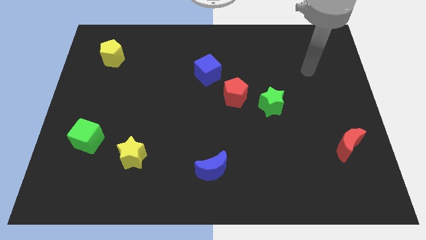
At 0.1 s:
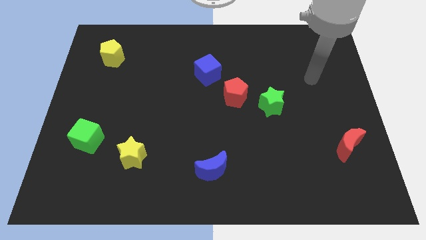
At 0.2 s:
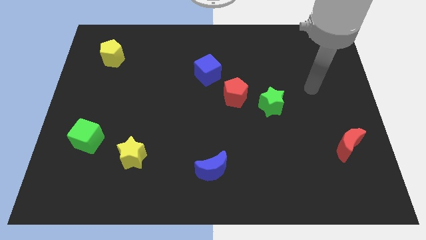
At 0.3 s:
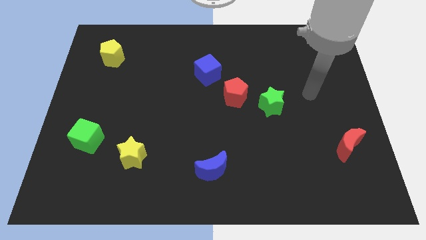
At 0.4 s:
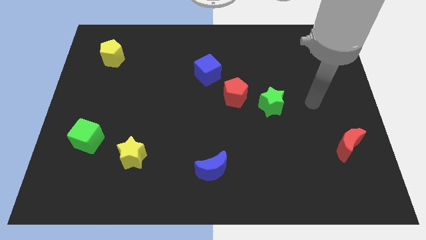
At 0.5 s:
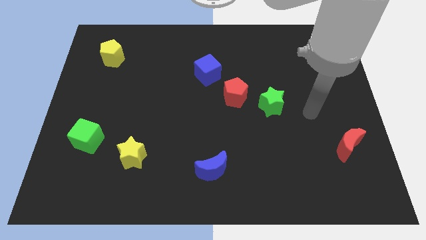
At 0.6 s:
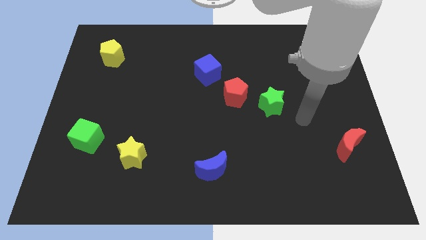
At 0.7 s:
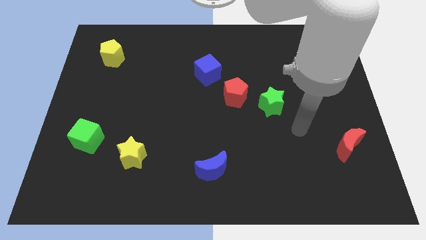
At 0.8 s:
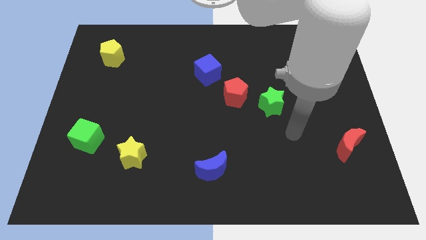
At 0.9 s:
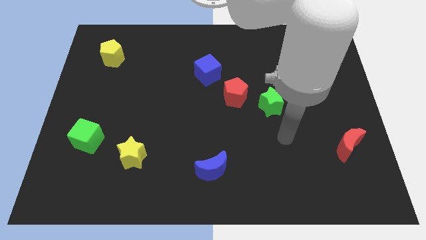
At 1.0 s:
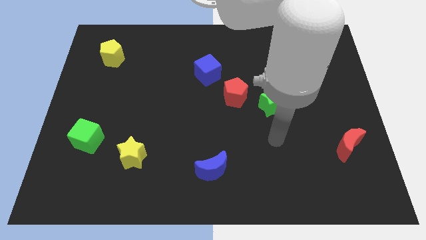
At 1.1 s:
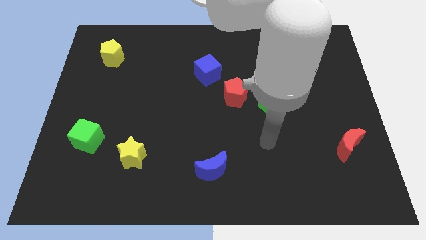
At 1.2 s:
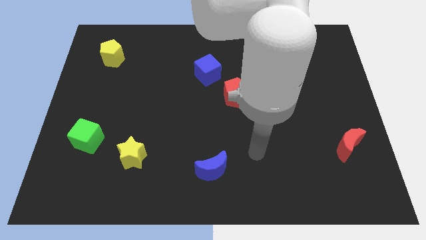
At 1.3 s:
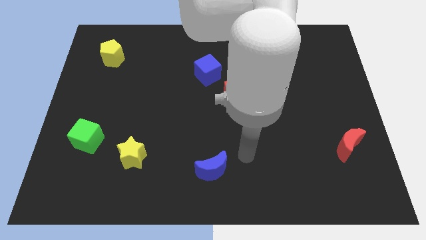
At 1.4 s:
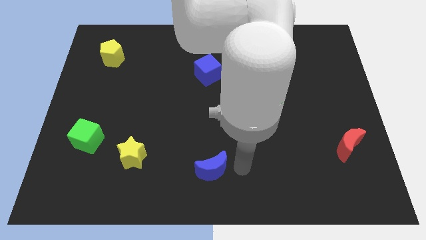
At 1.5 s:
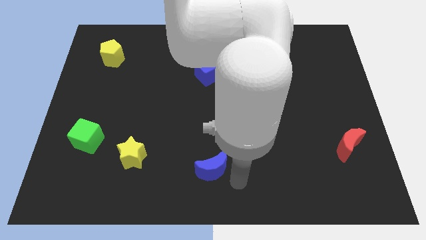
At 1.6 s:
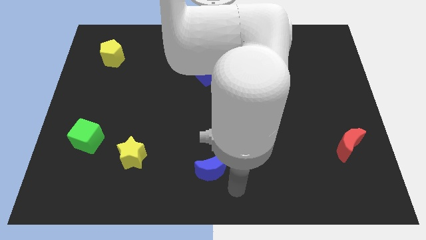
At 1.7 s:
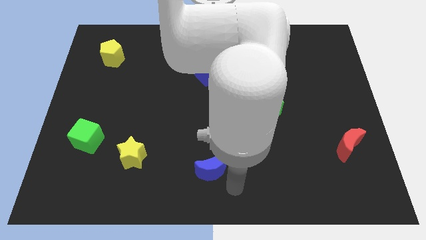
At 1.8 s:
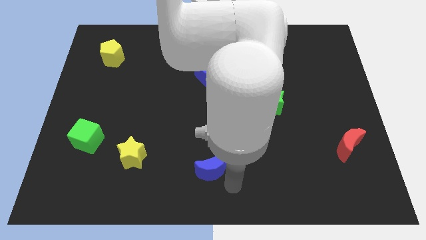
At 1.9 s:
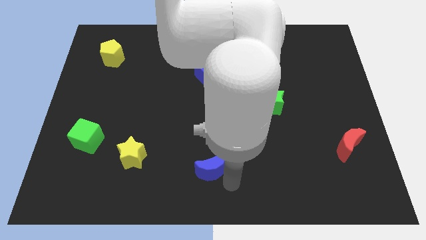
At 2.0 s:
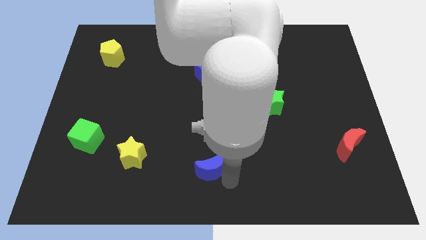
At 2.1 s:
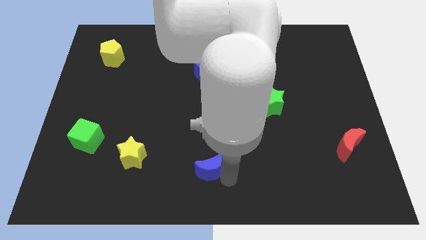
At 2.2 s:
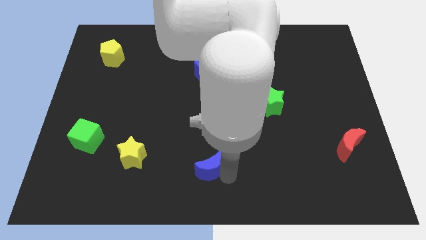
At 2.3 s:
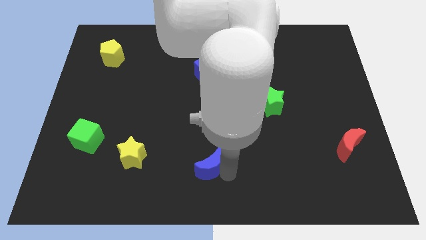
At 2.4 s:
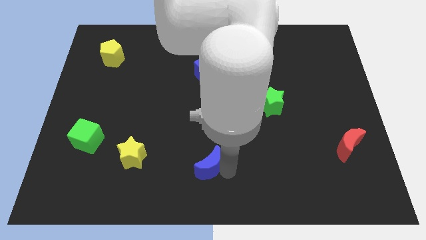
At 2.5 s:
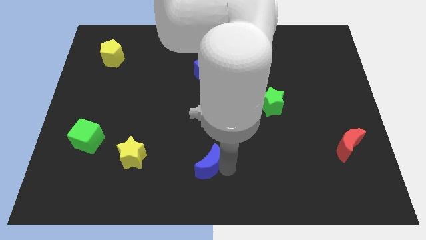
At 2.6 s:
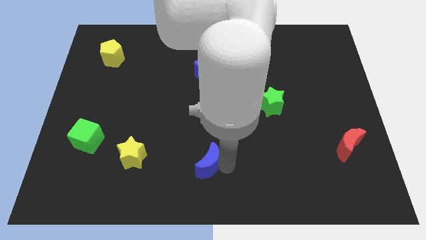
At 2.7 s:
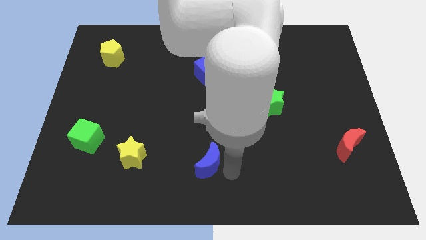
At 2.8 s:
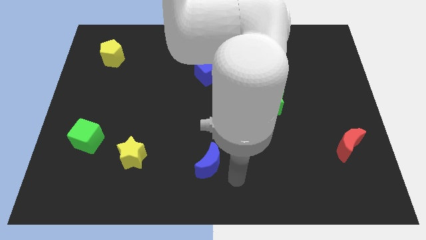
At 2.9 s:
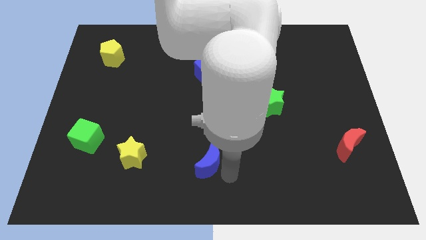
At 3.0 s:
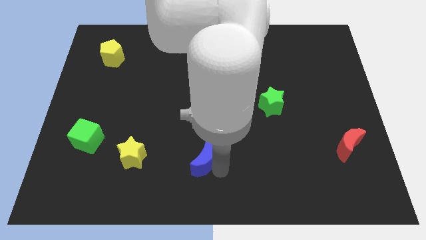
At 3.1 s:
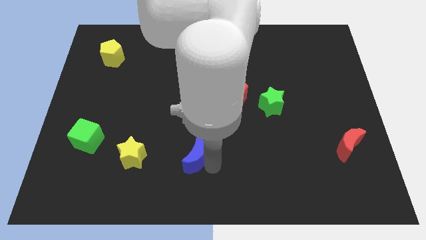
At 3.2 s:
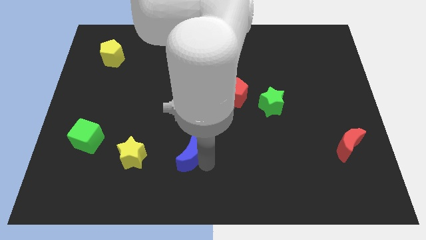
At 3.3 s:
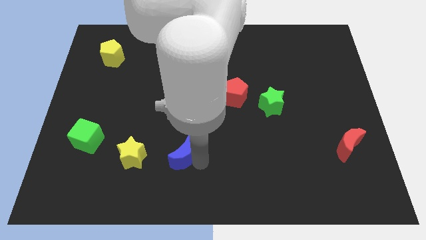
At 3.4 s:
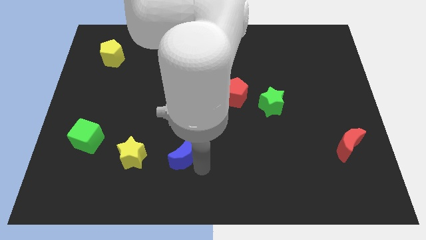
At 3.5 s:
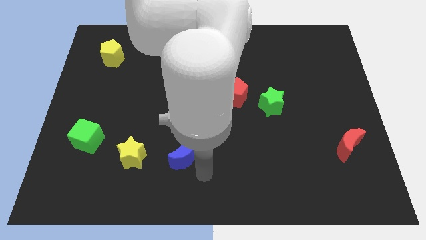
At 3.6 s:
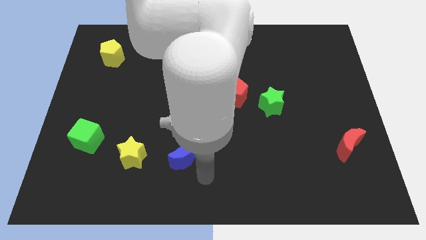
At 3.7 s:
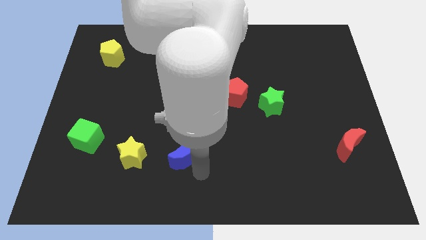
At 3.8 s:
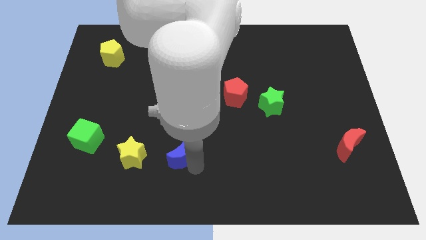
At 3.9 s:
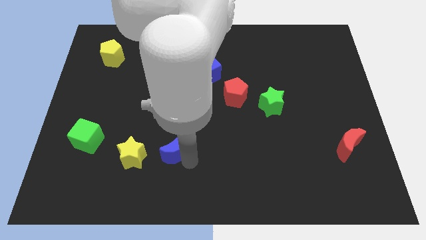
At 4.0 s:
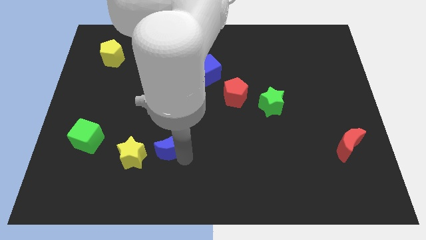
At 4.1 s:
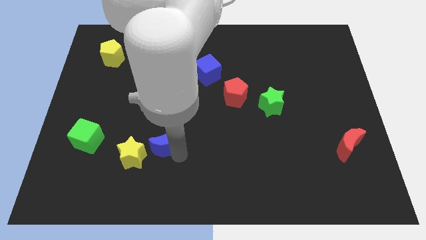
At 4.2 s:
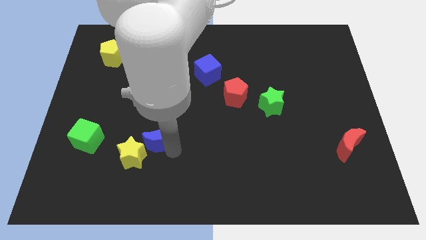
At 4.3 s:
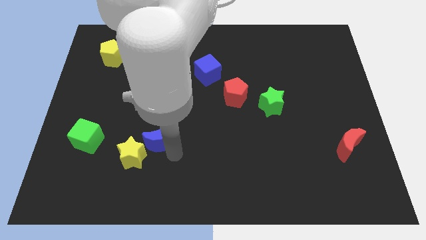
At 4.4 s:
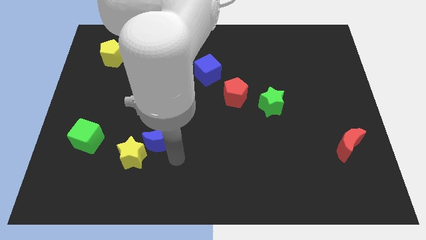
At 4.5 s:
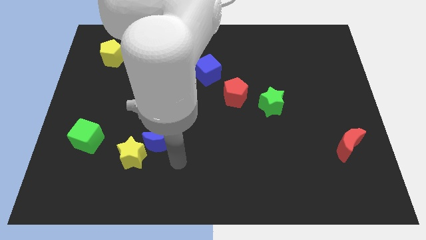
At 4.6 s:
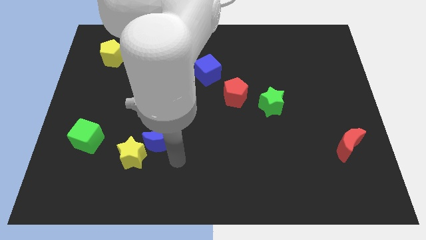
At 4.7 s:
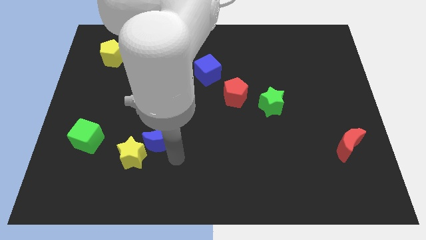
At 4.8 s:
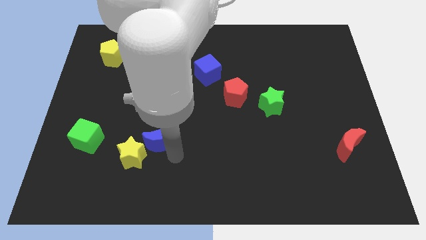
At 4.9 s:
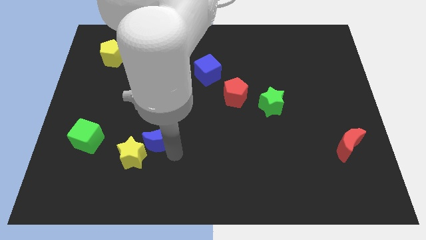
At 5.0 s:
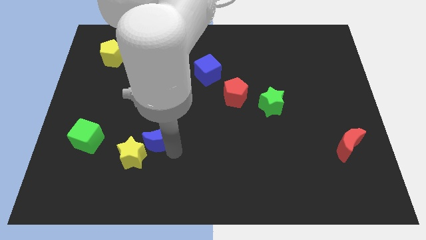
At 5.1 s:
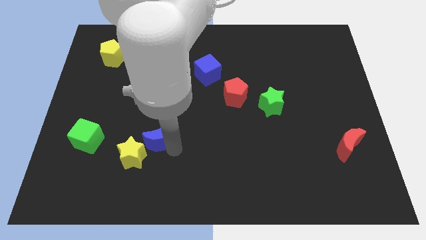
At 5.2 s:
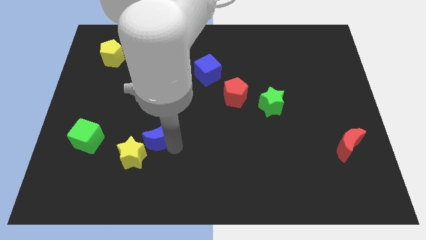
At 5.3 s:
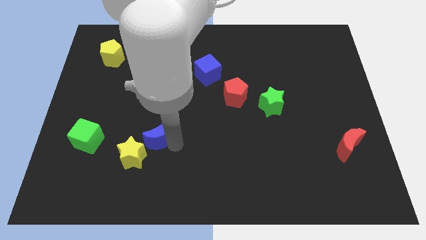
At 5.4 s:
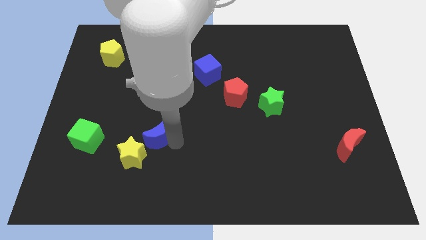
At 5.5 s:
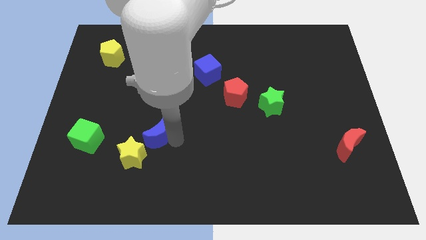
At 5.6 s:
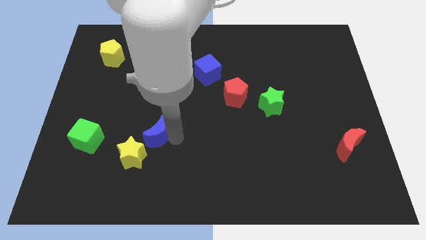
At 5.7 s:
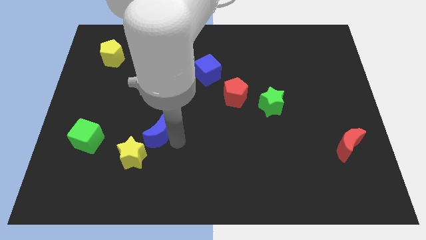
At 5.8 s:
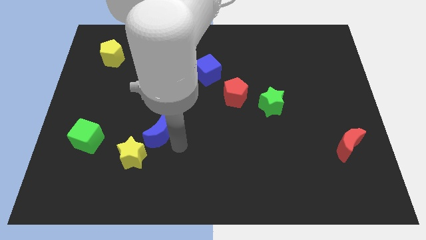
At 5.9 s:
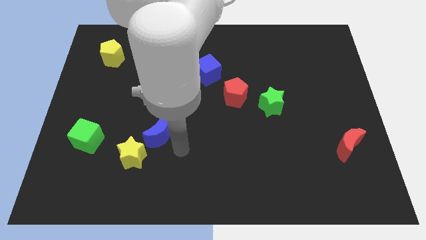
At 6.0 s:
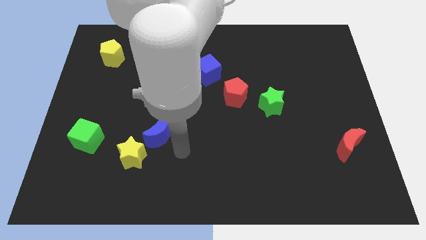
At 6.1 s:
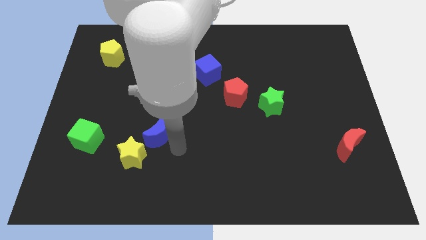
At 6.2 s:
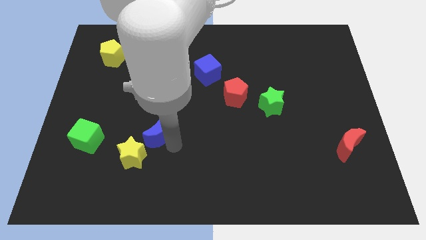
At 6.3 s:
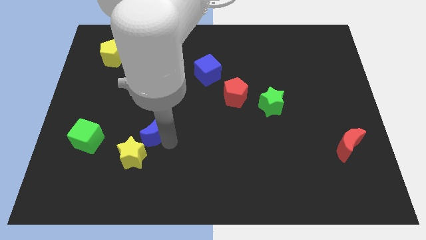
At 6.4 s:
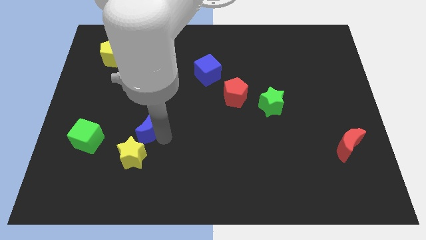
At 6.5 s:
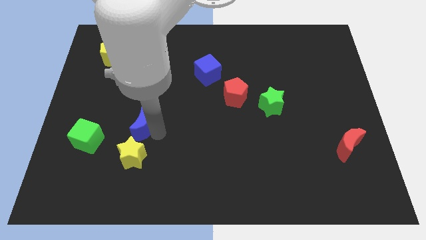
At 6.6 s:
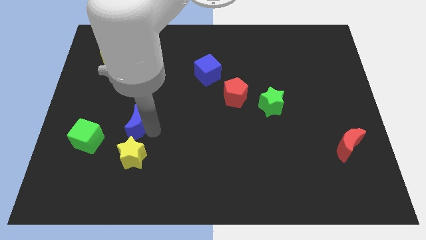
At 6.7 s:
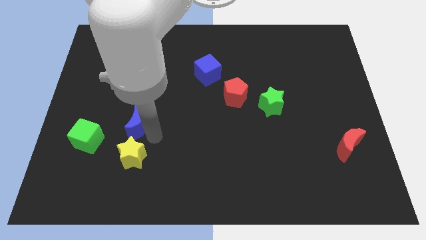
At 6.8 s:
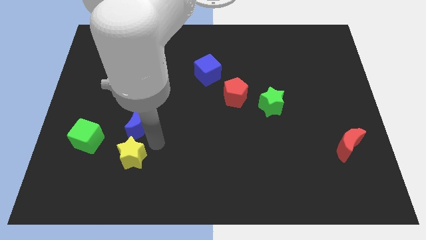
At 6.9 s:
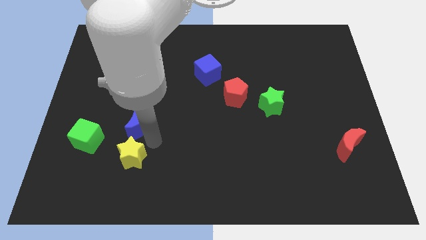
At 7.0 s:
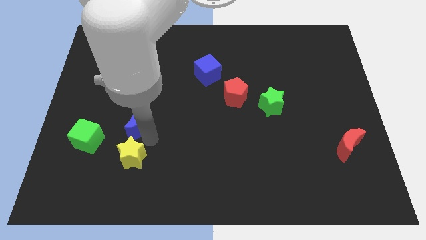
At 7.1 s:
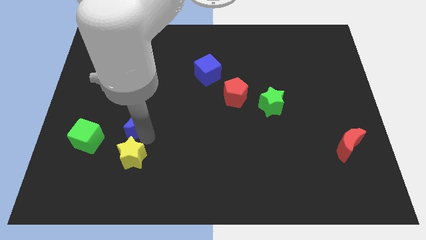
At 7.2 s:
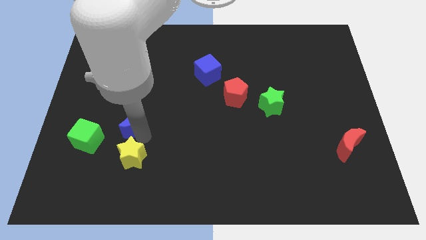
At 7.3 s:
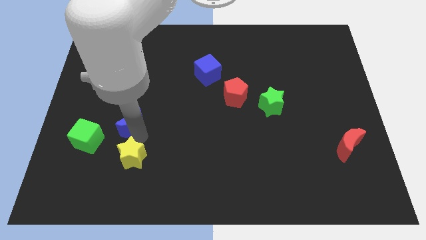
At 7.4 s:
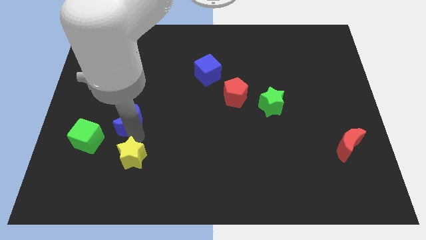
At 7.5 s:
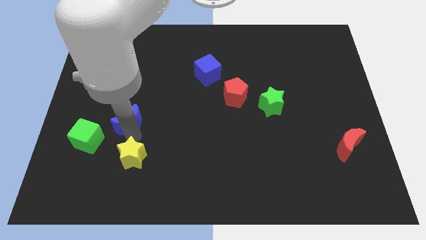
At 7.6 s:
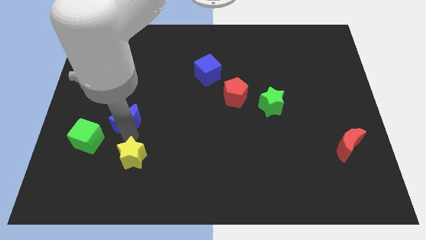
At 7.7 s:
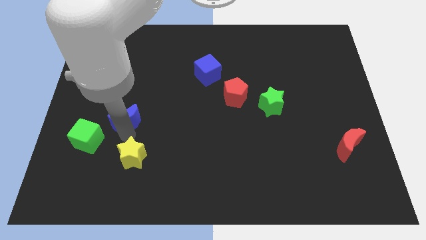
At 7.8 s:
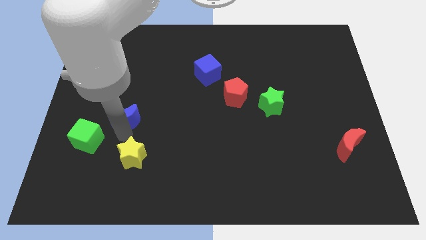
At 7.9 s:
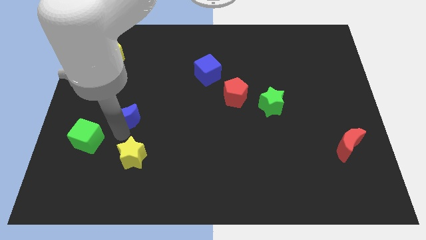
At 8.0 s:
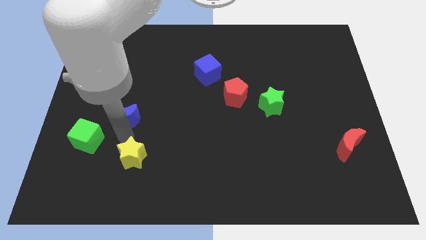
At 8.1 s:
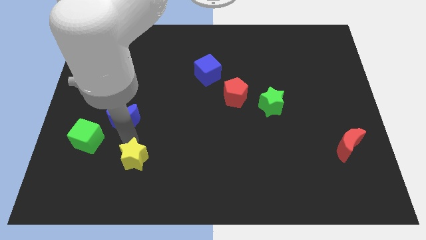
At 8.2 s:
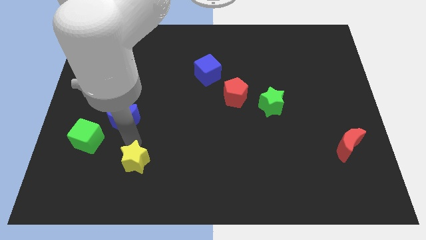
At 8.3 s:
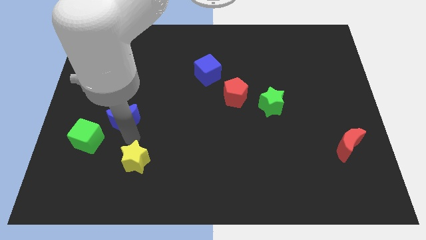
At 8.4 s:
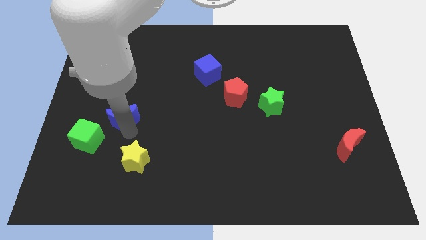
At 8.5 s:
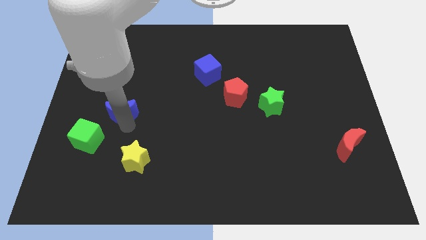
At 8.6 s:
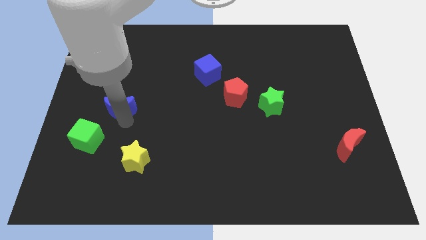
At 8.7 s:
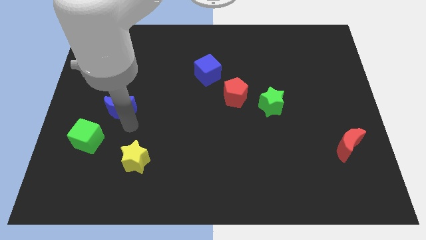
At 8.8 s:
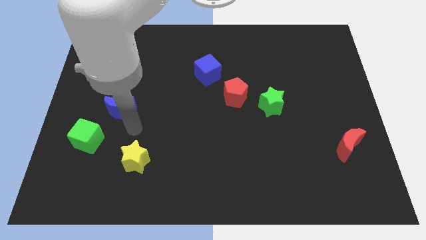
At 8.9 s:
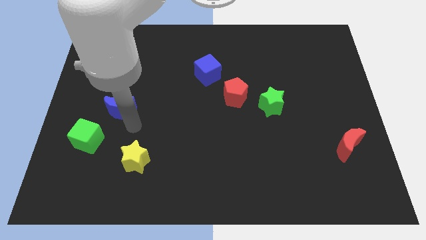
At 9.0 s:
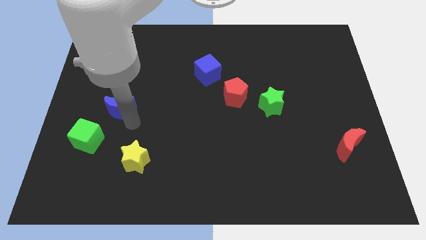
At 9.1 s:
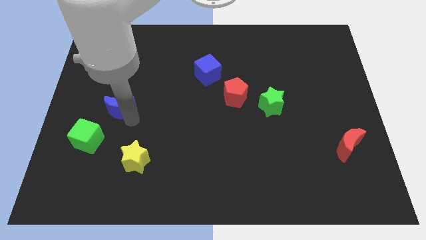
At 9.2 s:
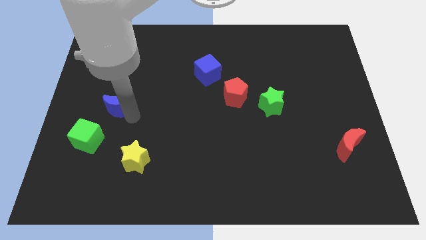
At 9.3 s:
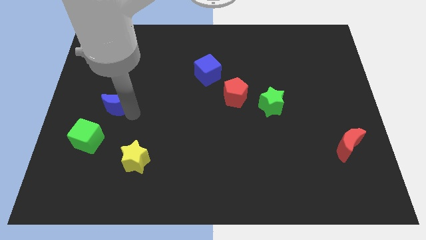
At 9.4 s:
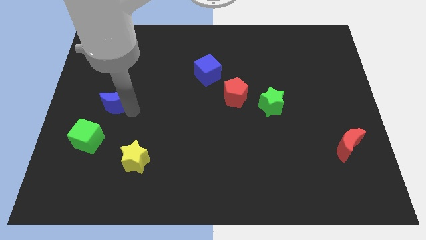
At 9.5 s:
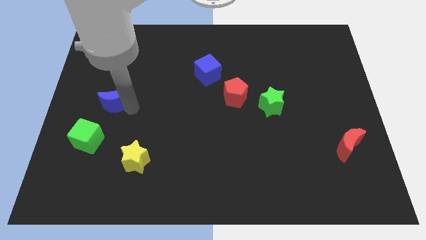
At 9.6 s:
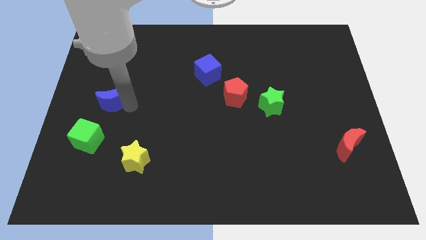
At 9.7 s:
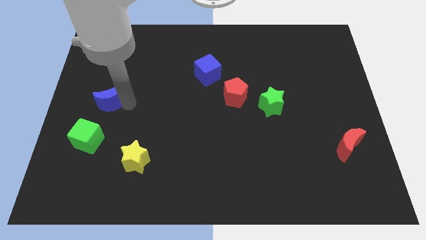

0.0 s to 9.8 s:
slide the blue moon to the bottom side of the yellow pentagon
